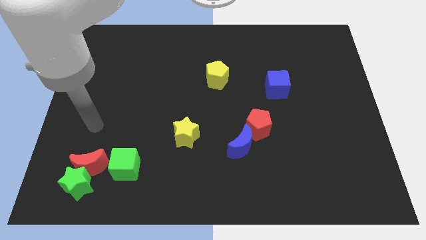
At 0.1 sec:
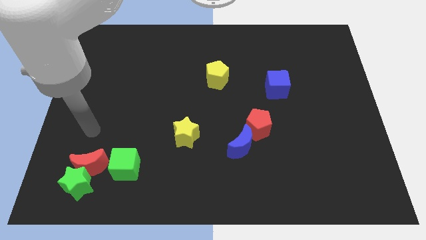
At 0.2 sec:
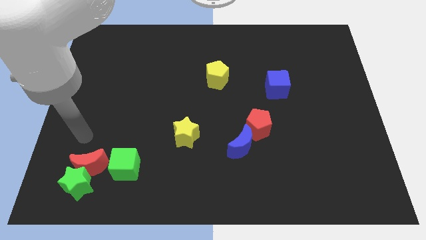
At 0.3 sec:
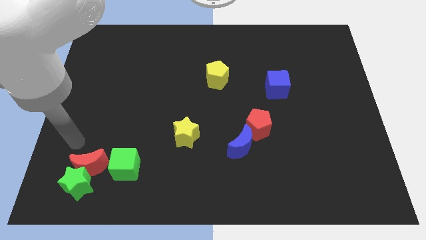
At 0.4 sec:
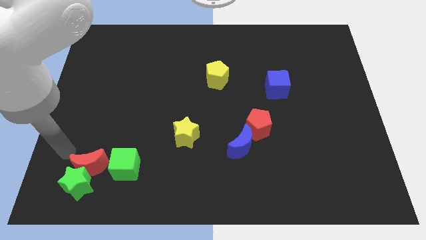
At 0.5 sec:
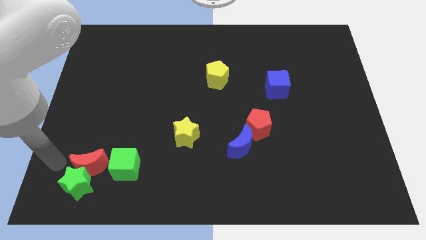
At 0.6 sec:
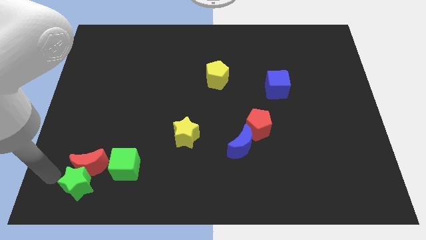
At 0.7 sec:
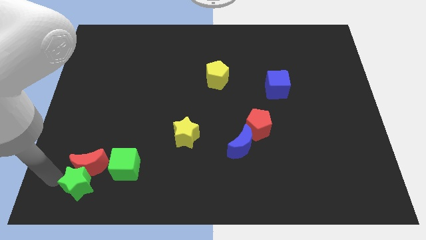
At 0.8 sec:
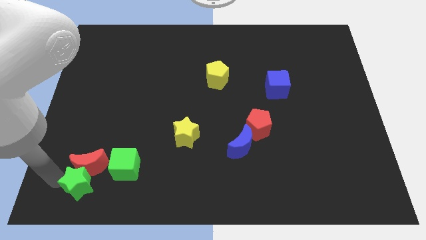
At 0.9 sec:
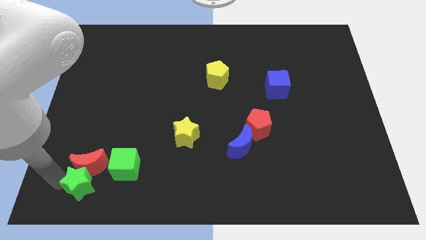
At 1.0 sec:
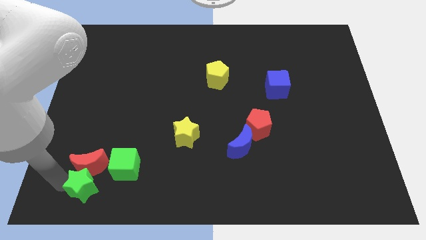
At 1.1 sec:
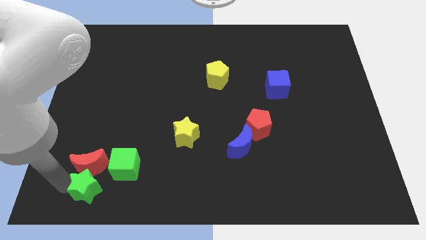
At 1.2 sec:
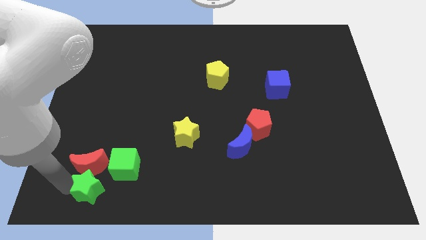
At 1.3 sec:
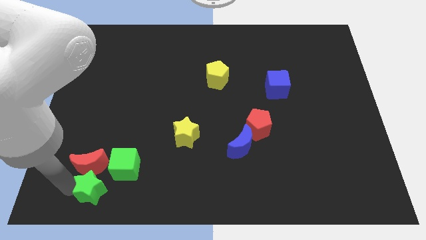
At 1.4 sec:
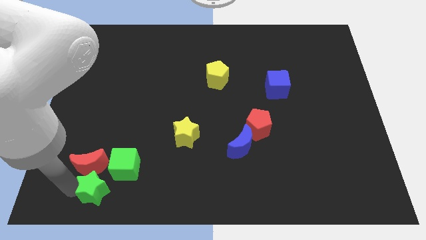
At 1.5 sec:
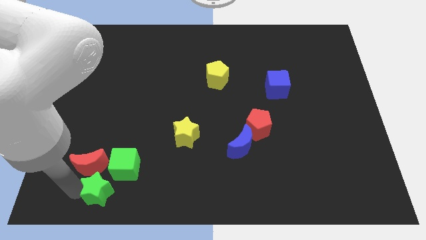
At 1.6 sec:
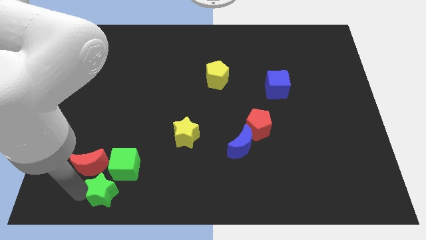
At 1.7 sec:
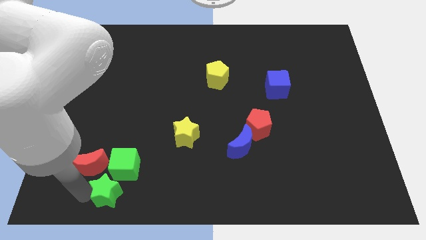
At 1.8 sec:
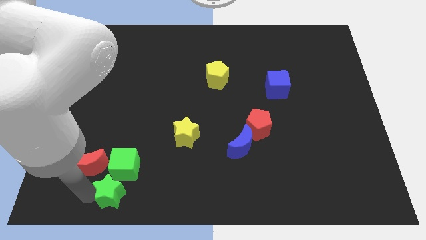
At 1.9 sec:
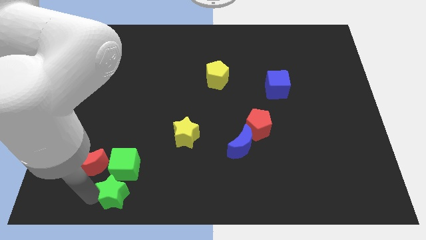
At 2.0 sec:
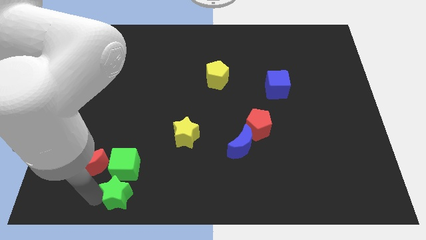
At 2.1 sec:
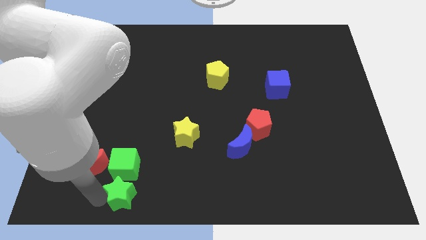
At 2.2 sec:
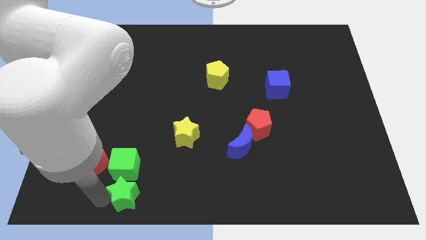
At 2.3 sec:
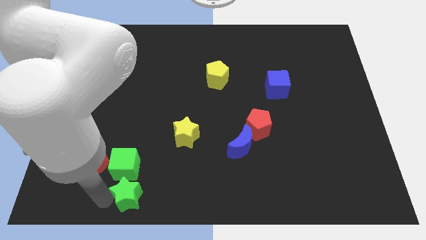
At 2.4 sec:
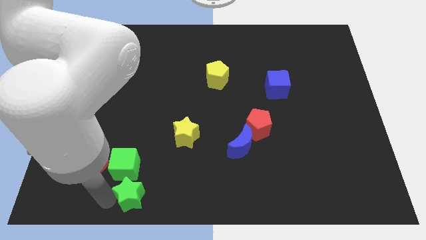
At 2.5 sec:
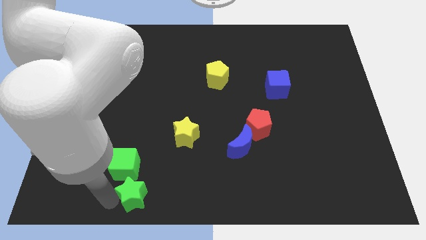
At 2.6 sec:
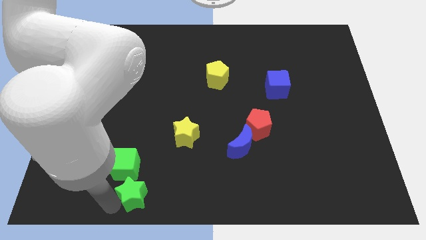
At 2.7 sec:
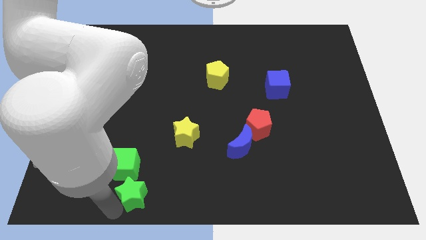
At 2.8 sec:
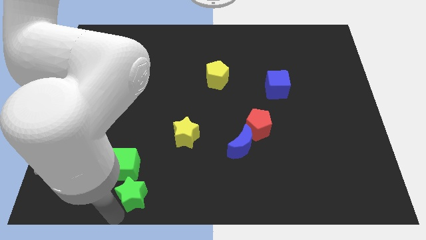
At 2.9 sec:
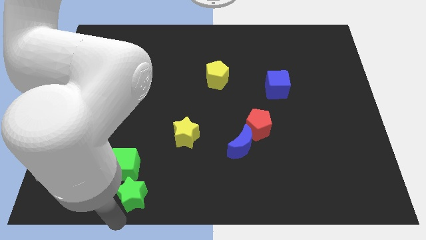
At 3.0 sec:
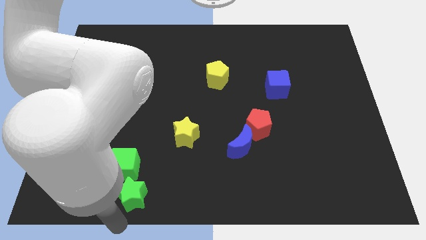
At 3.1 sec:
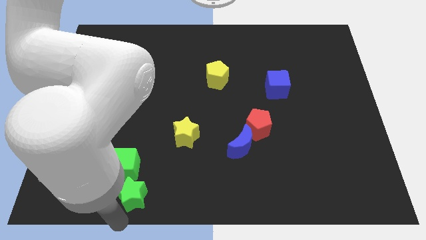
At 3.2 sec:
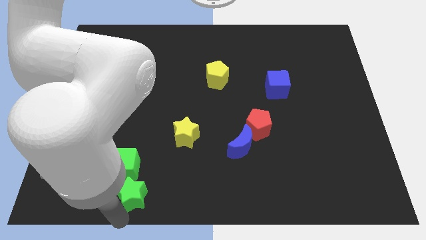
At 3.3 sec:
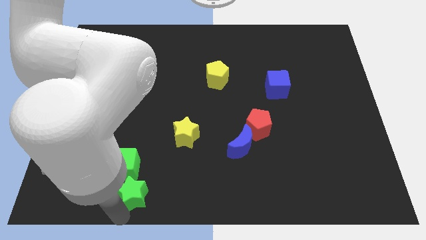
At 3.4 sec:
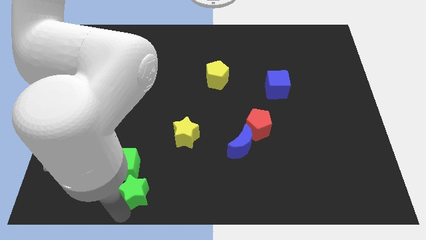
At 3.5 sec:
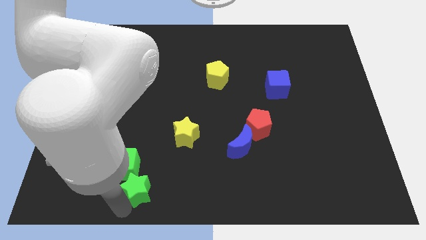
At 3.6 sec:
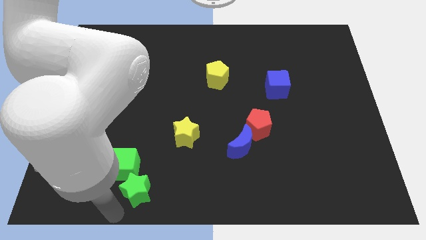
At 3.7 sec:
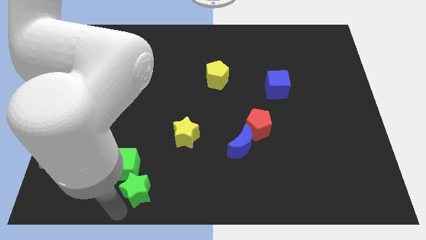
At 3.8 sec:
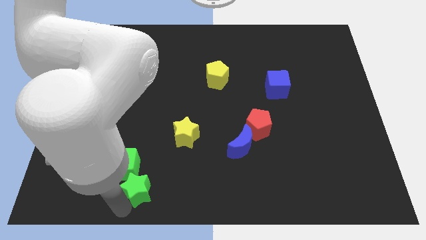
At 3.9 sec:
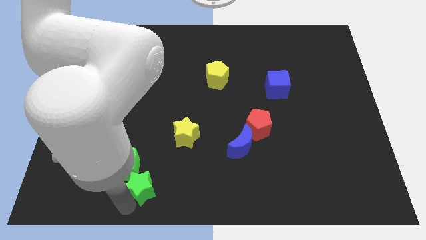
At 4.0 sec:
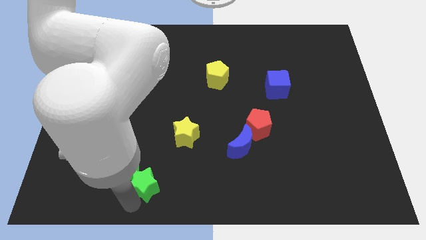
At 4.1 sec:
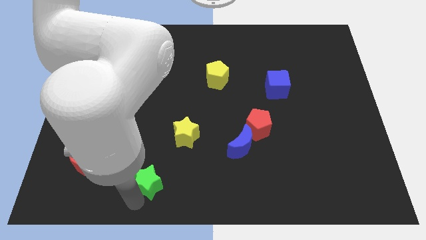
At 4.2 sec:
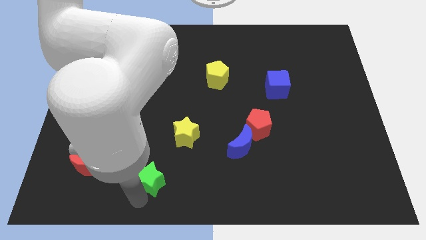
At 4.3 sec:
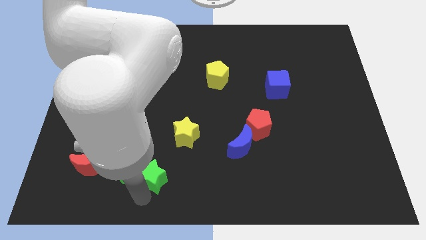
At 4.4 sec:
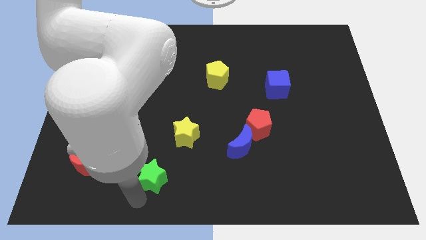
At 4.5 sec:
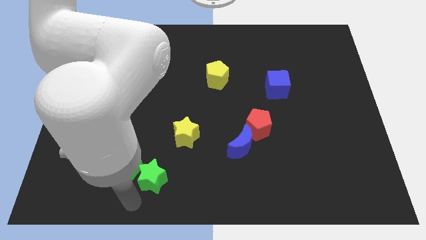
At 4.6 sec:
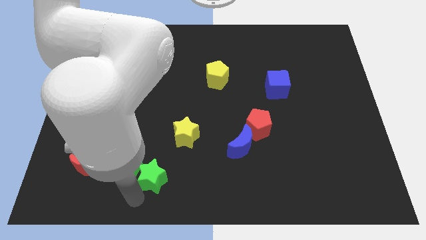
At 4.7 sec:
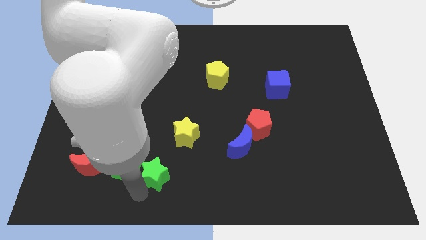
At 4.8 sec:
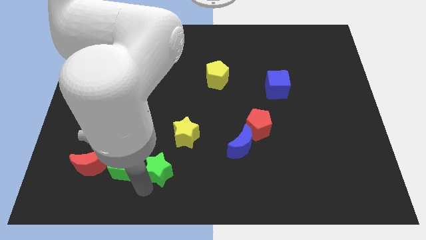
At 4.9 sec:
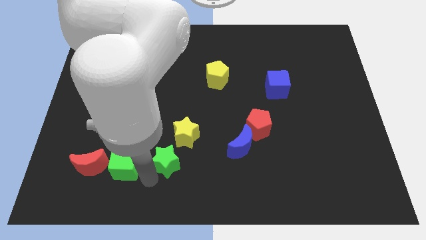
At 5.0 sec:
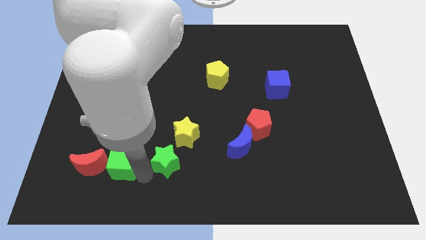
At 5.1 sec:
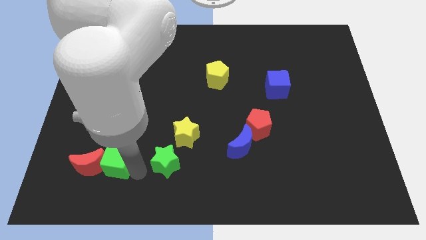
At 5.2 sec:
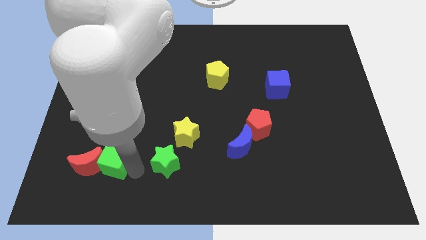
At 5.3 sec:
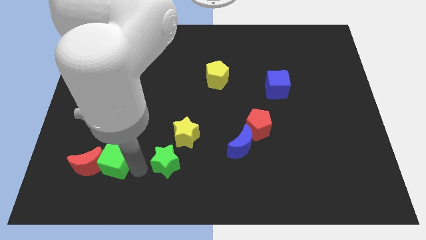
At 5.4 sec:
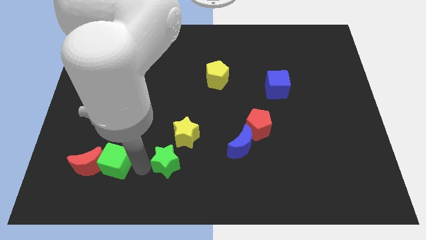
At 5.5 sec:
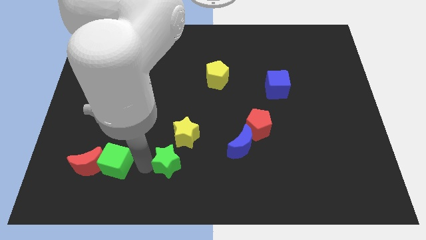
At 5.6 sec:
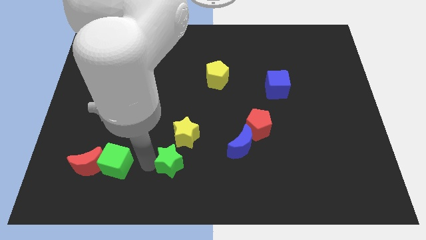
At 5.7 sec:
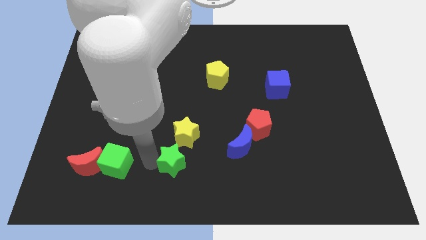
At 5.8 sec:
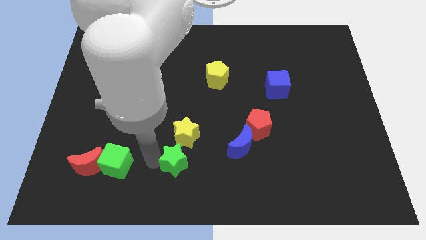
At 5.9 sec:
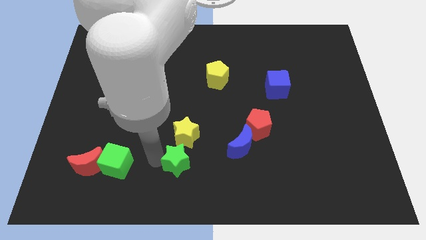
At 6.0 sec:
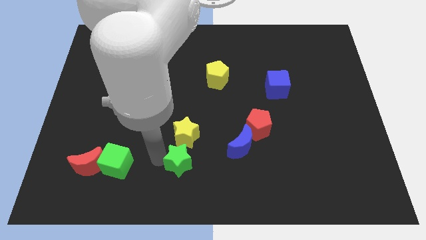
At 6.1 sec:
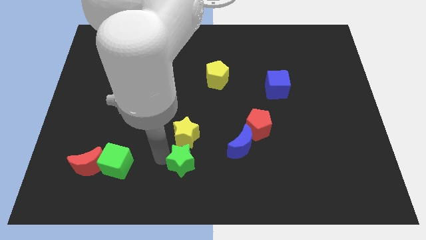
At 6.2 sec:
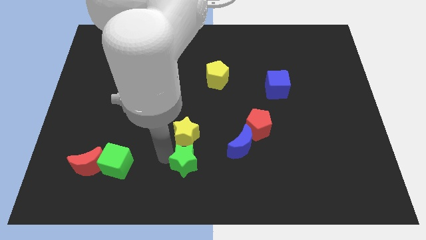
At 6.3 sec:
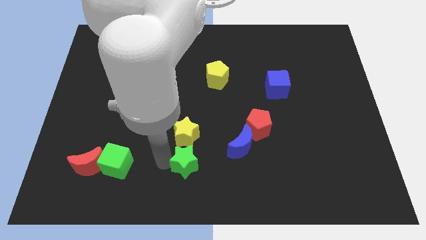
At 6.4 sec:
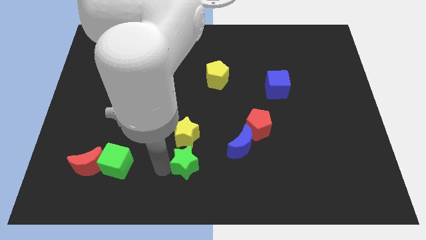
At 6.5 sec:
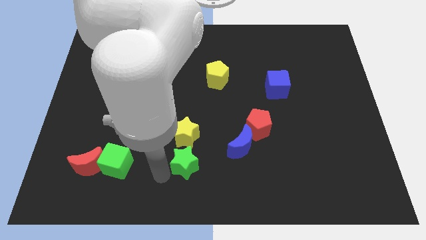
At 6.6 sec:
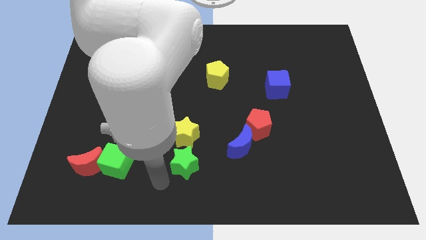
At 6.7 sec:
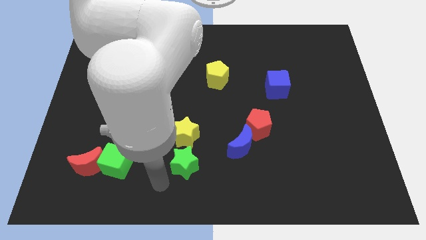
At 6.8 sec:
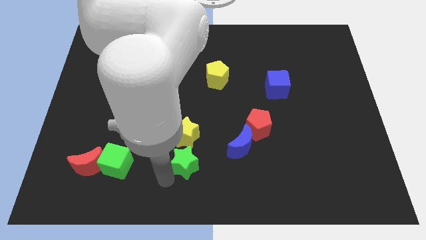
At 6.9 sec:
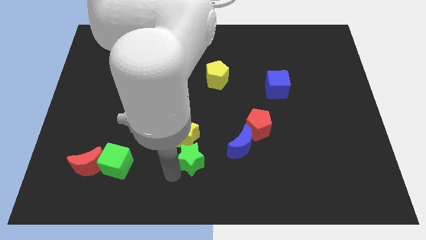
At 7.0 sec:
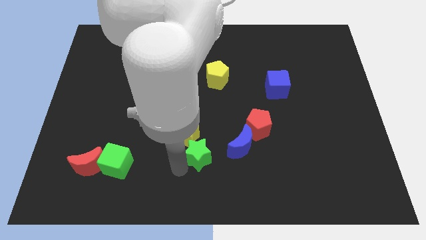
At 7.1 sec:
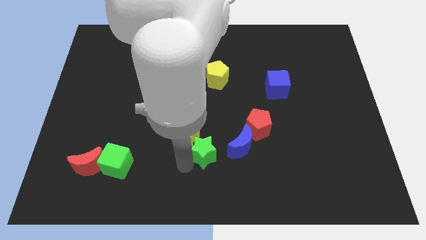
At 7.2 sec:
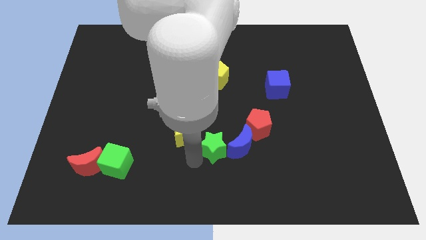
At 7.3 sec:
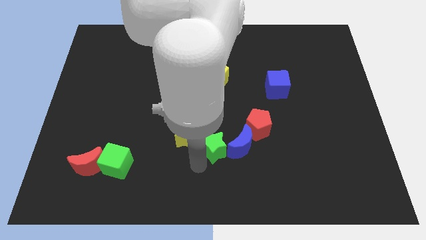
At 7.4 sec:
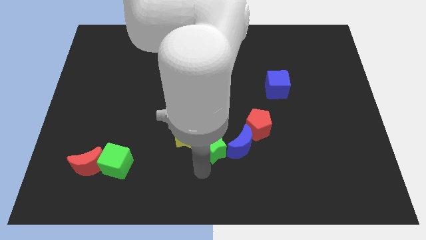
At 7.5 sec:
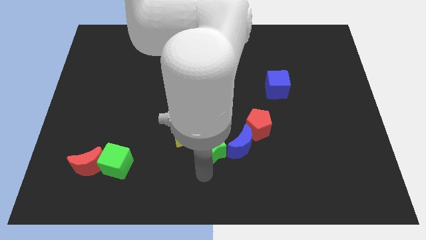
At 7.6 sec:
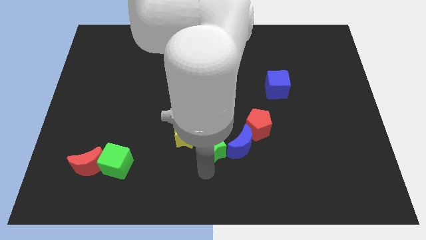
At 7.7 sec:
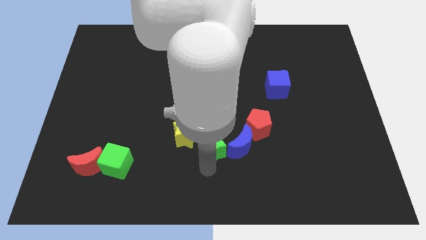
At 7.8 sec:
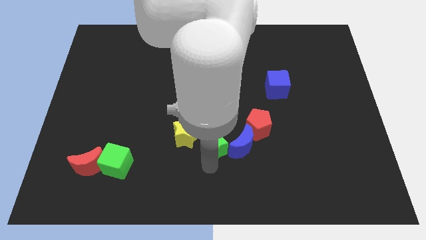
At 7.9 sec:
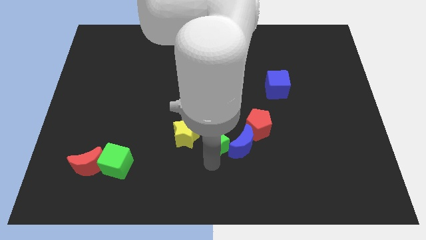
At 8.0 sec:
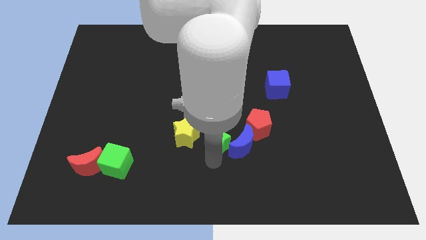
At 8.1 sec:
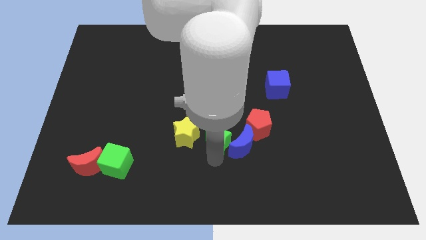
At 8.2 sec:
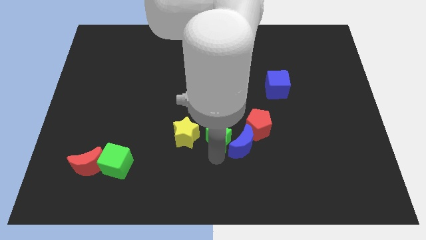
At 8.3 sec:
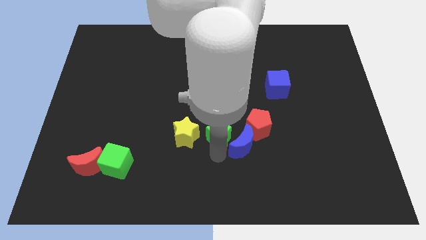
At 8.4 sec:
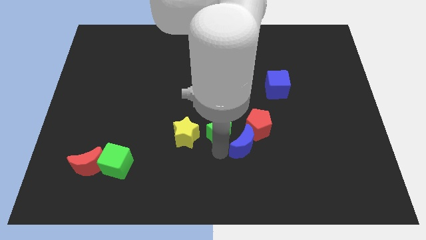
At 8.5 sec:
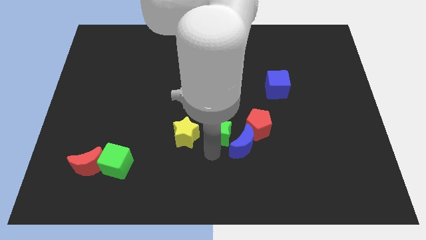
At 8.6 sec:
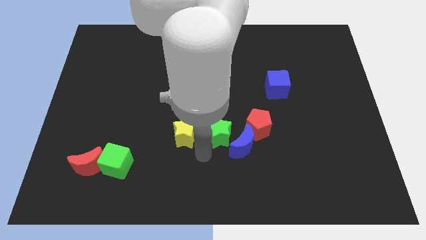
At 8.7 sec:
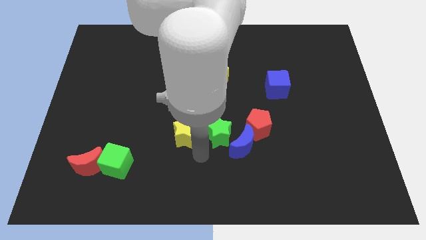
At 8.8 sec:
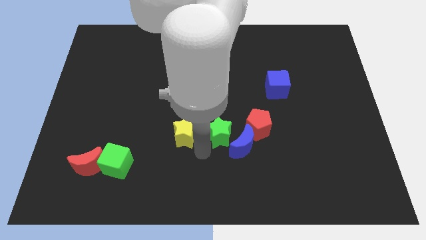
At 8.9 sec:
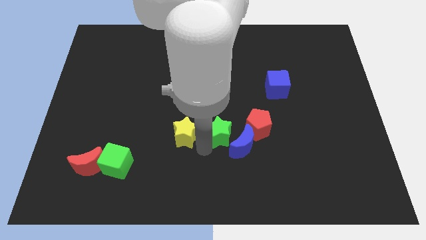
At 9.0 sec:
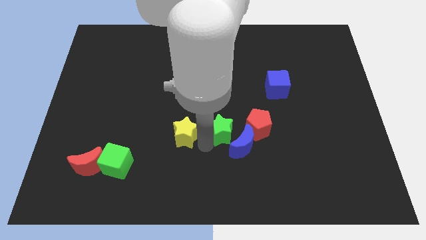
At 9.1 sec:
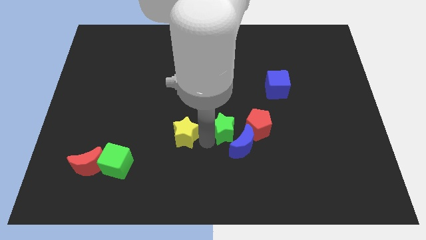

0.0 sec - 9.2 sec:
push the green star to the top side of the blue moon
